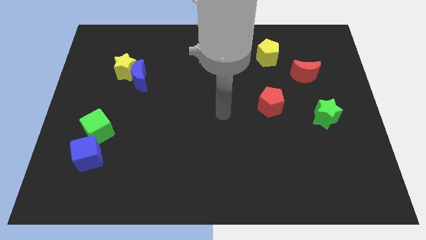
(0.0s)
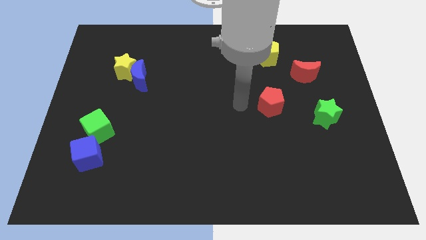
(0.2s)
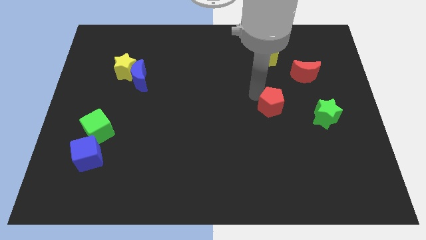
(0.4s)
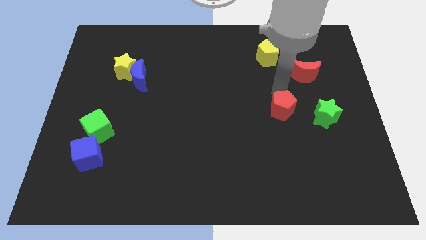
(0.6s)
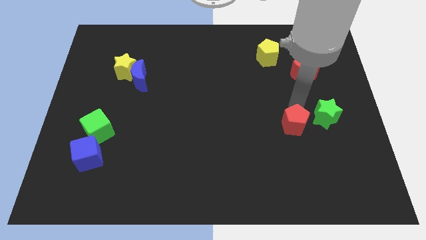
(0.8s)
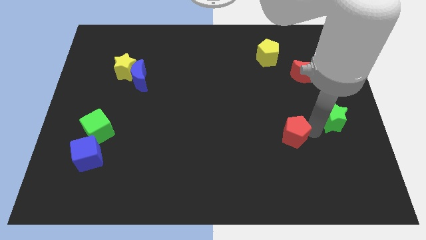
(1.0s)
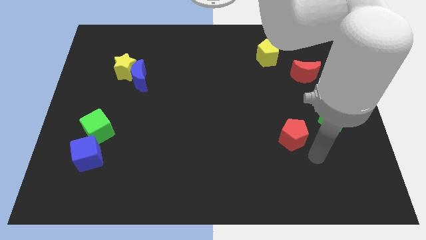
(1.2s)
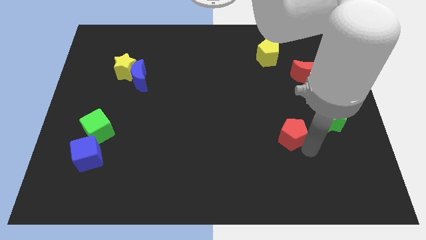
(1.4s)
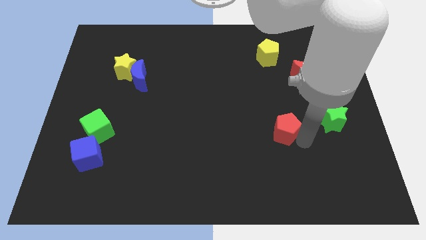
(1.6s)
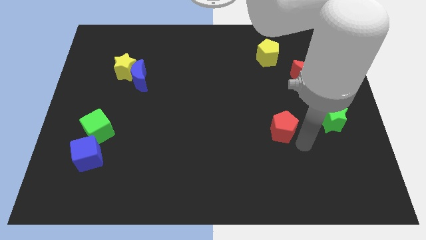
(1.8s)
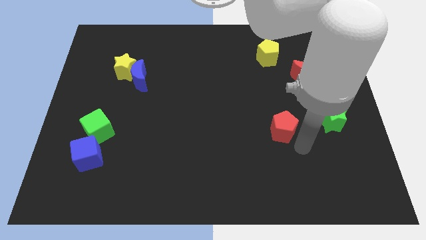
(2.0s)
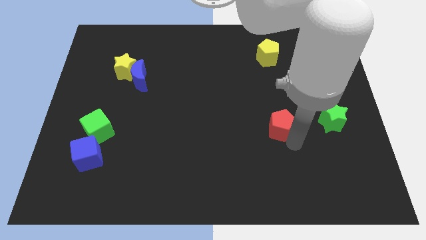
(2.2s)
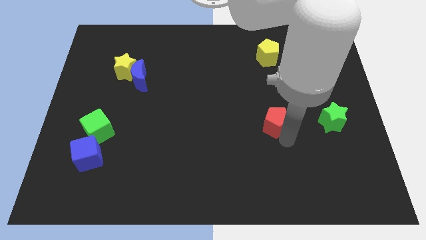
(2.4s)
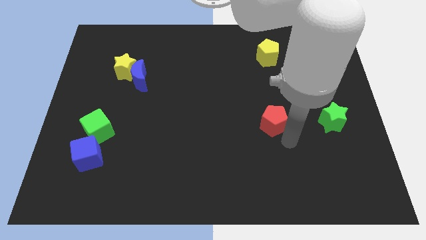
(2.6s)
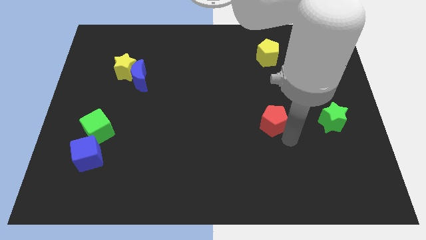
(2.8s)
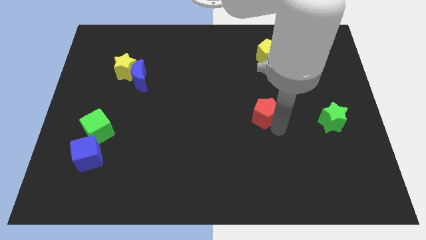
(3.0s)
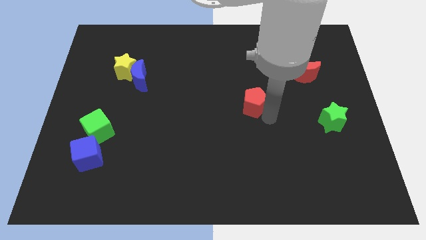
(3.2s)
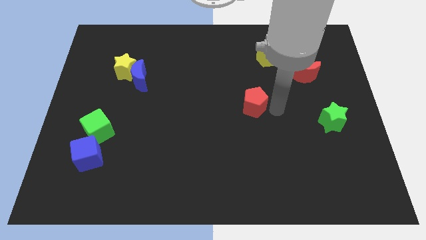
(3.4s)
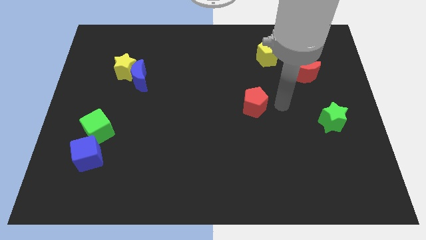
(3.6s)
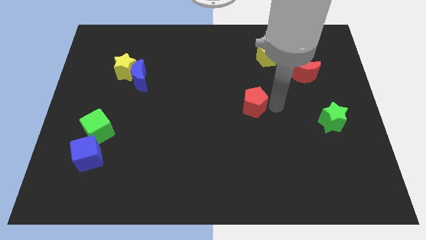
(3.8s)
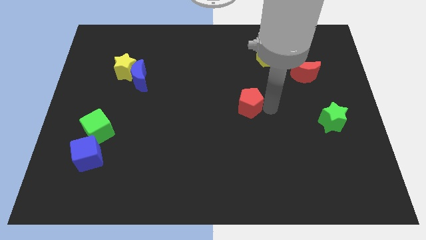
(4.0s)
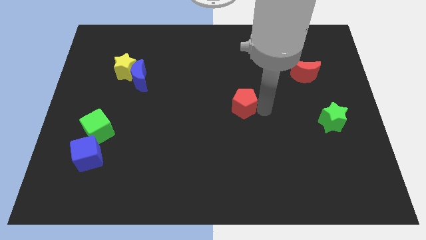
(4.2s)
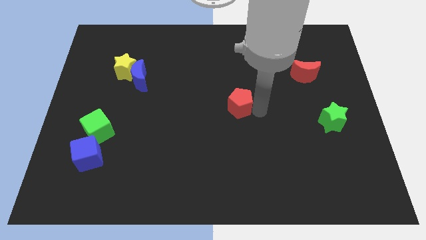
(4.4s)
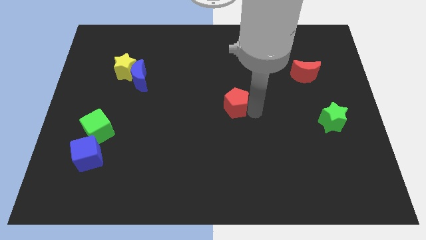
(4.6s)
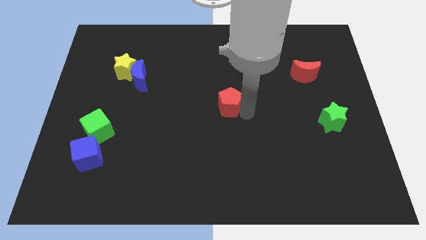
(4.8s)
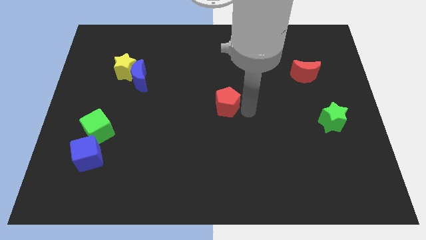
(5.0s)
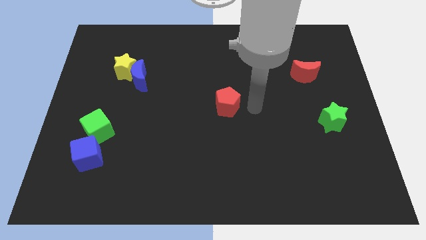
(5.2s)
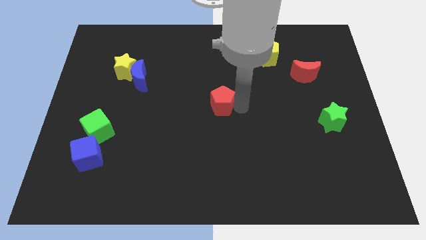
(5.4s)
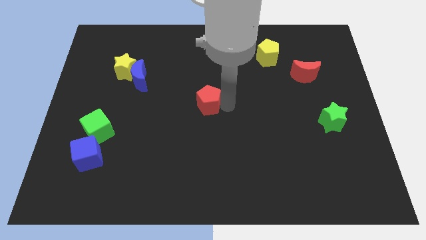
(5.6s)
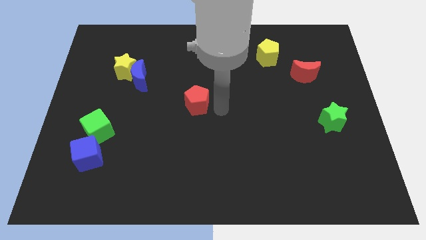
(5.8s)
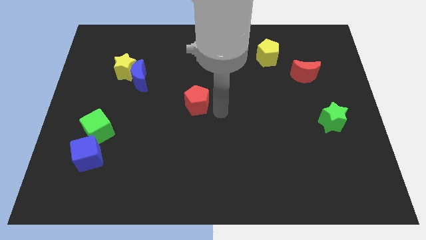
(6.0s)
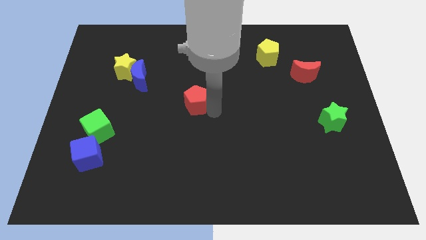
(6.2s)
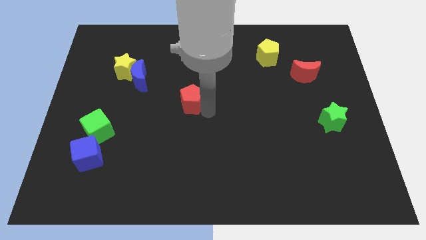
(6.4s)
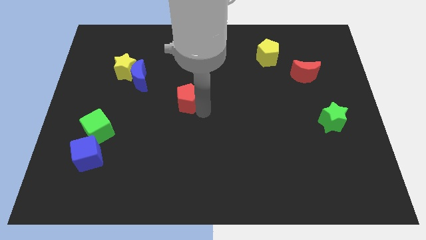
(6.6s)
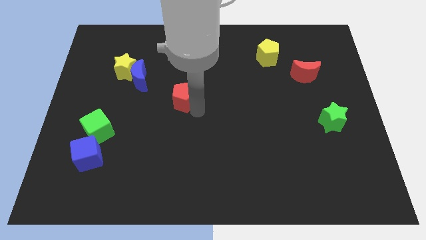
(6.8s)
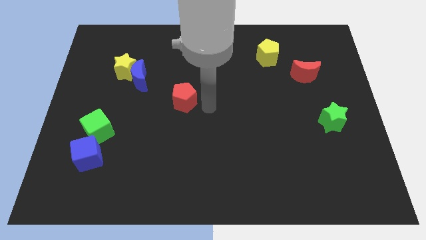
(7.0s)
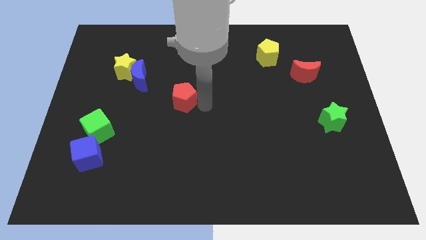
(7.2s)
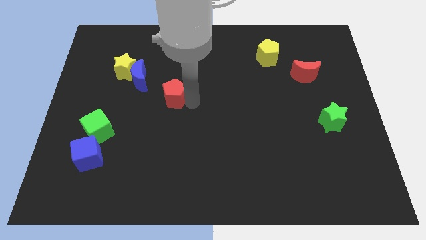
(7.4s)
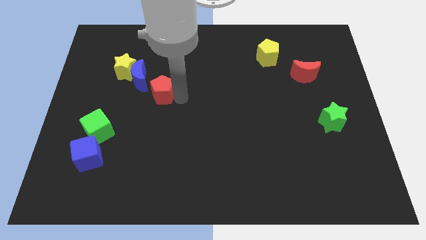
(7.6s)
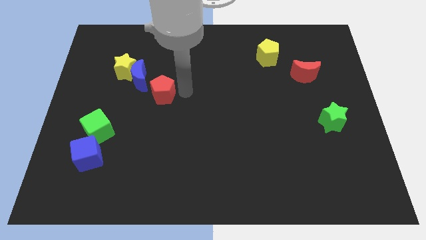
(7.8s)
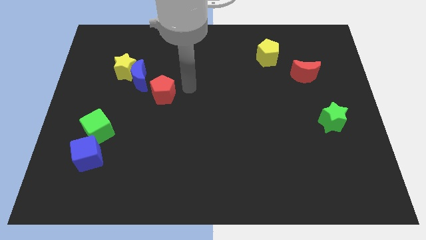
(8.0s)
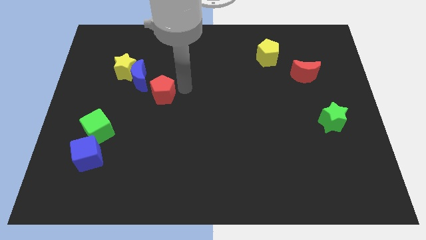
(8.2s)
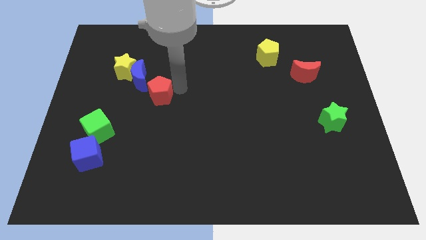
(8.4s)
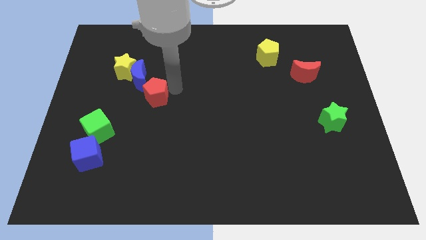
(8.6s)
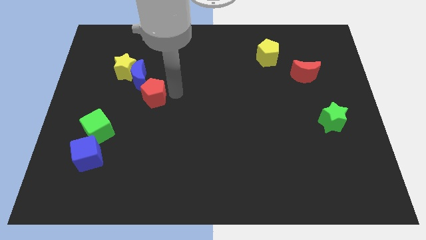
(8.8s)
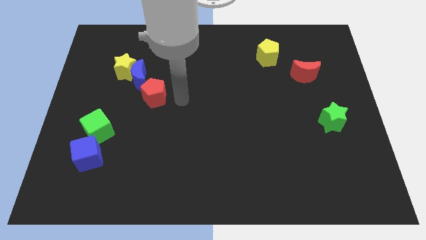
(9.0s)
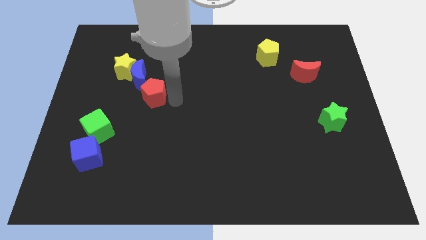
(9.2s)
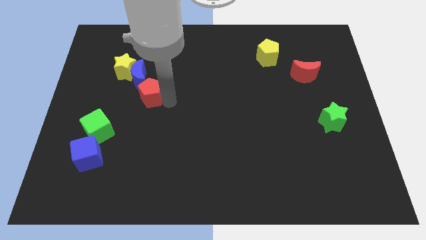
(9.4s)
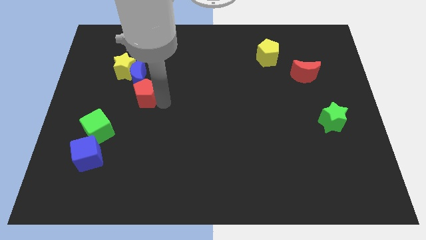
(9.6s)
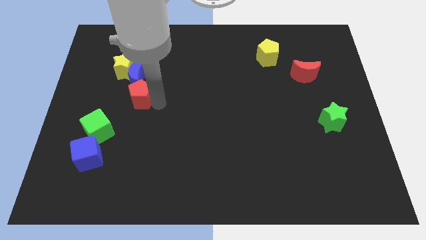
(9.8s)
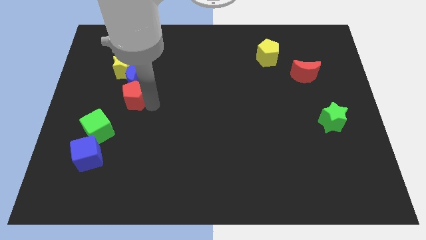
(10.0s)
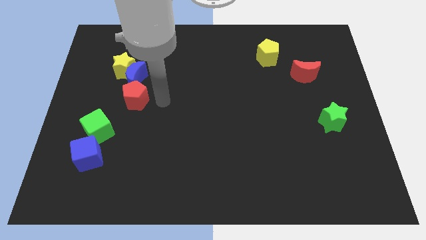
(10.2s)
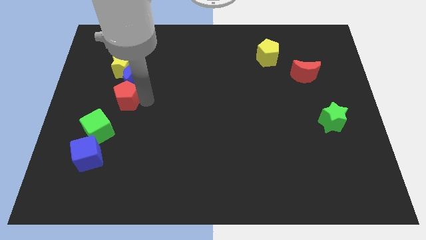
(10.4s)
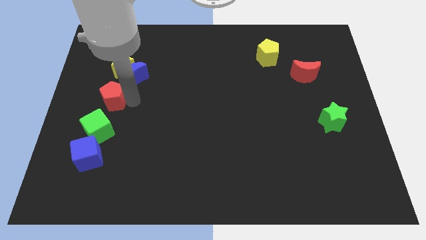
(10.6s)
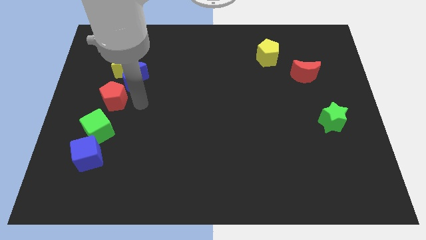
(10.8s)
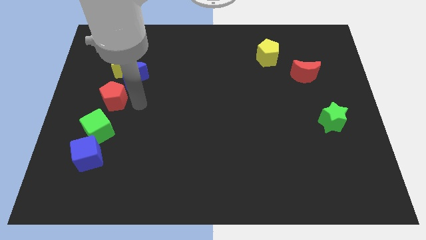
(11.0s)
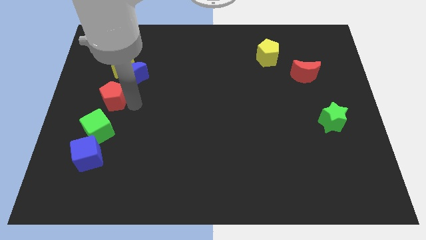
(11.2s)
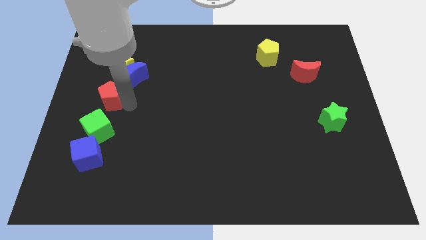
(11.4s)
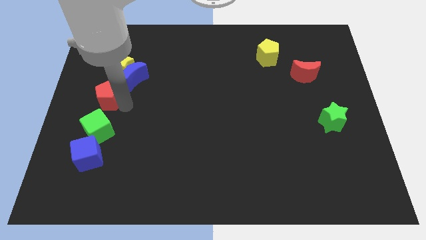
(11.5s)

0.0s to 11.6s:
push the red pentagon to the center left

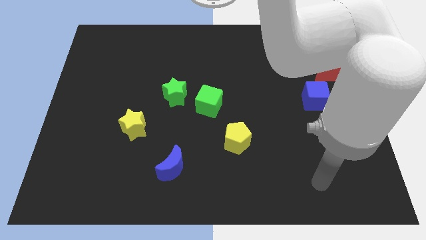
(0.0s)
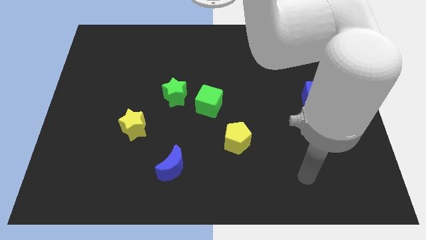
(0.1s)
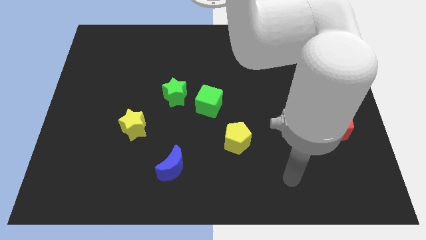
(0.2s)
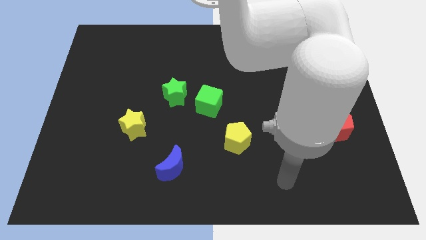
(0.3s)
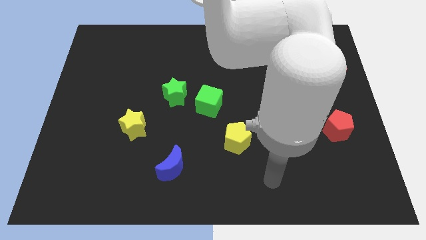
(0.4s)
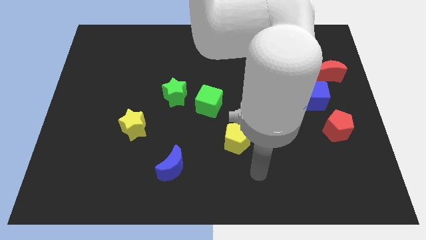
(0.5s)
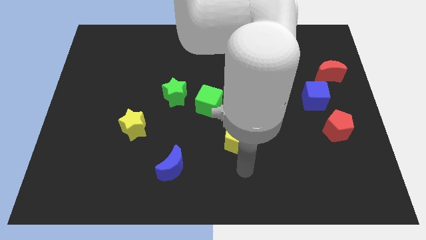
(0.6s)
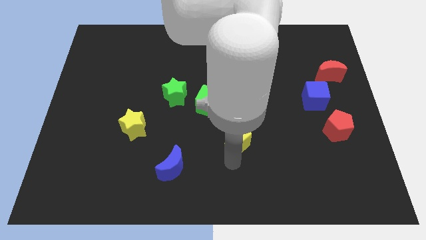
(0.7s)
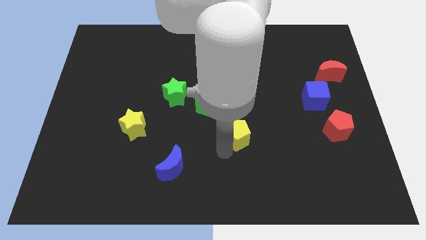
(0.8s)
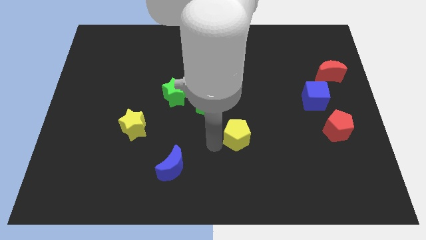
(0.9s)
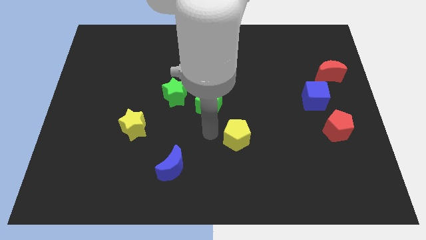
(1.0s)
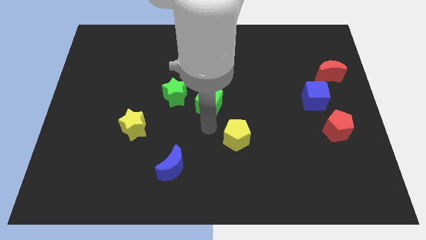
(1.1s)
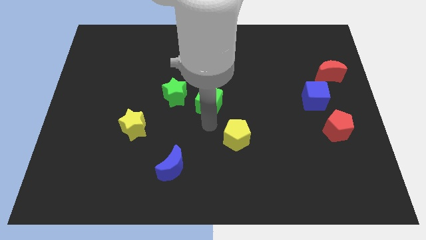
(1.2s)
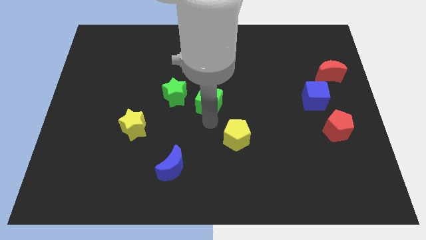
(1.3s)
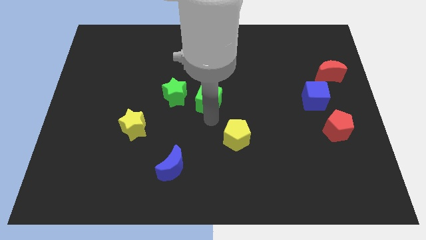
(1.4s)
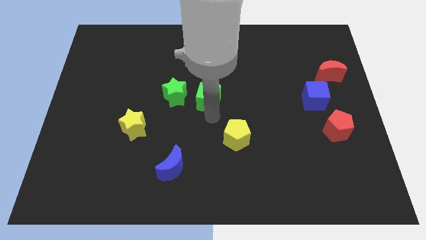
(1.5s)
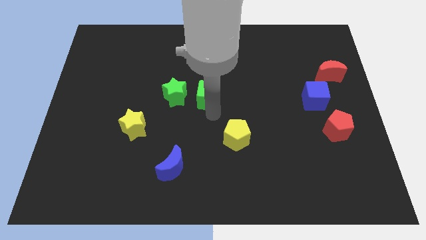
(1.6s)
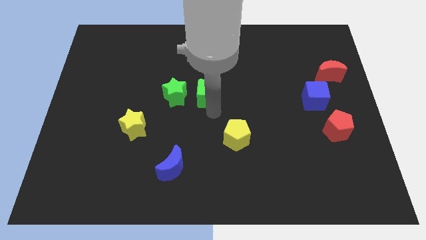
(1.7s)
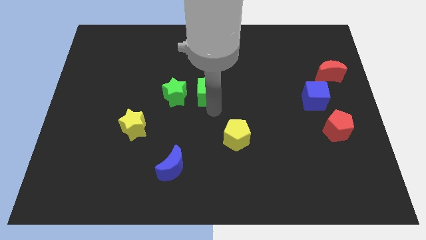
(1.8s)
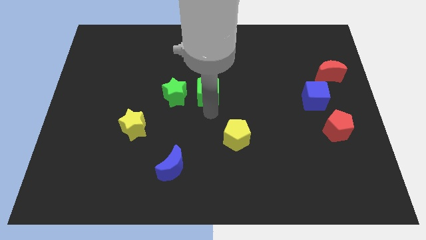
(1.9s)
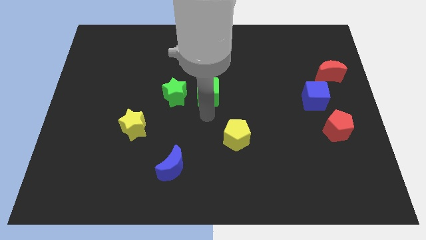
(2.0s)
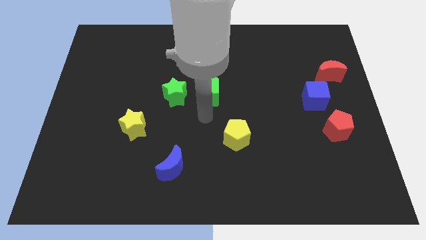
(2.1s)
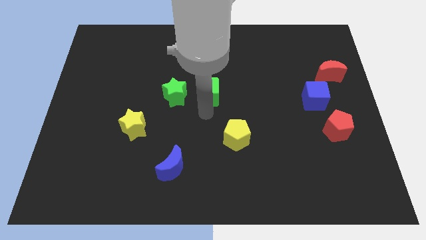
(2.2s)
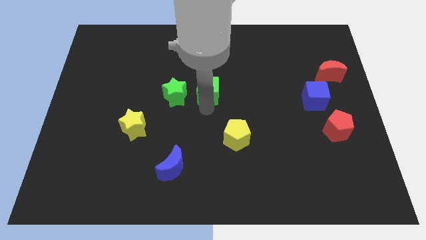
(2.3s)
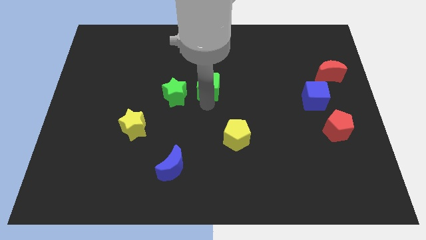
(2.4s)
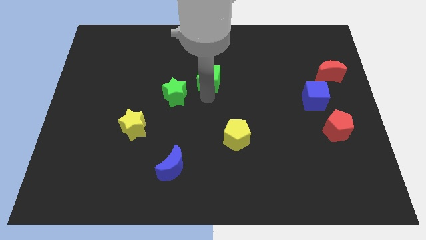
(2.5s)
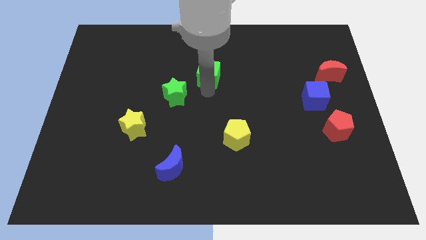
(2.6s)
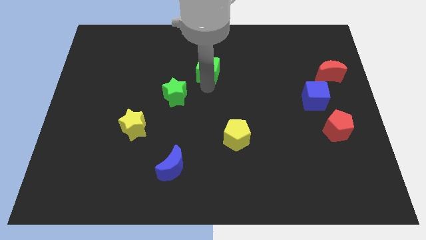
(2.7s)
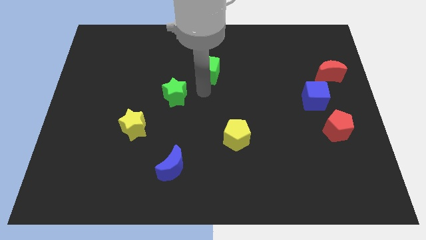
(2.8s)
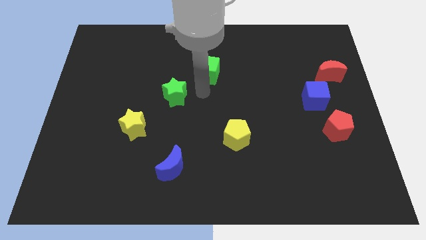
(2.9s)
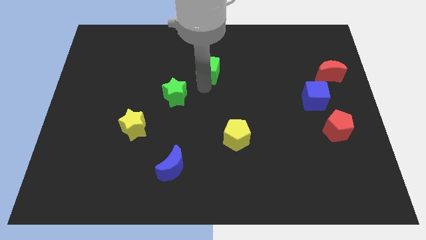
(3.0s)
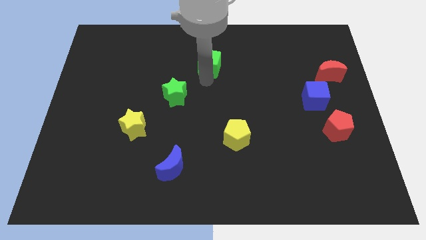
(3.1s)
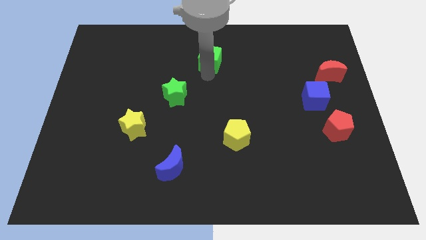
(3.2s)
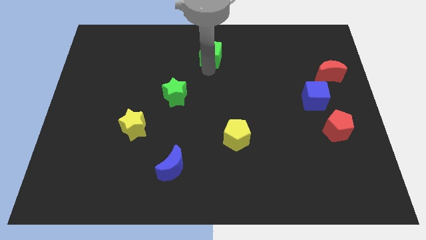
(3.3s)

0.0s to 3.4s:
put the green cube to the top side
